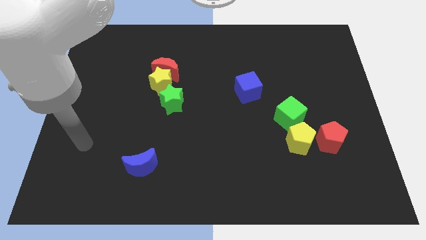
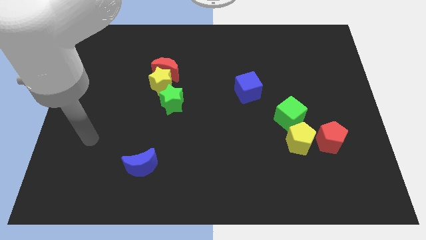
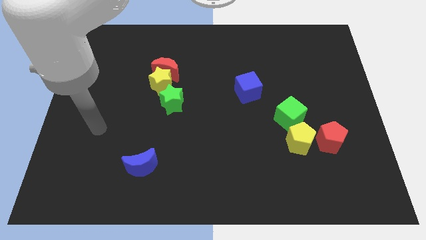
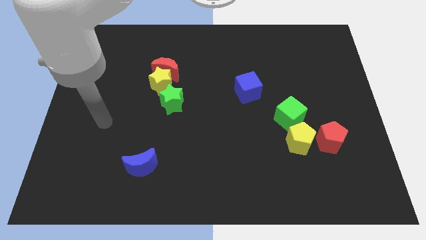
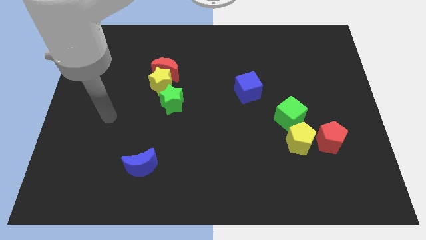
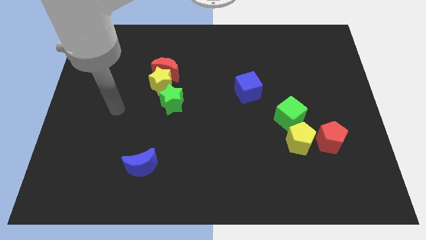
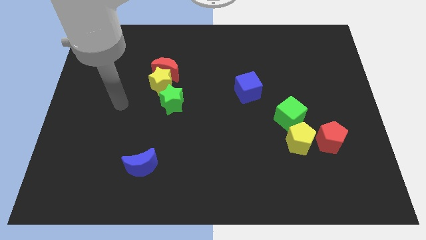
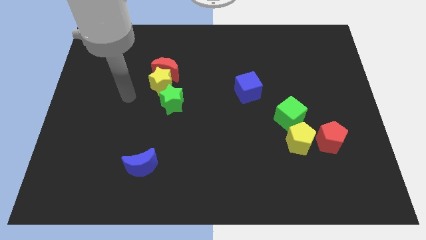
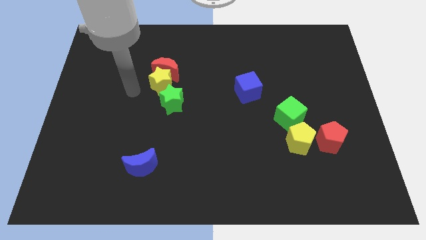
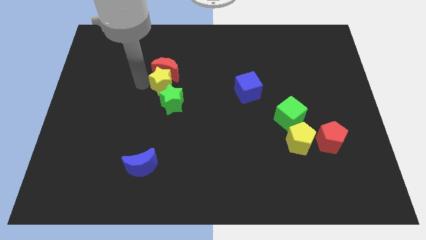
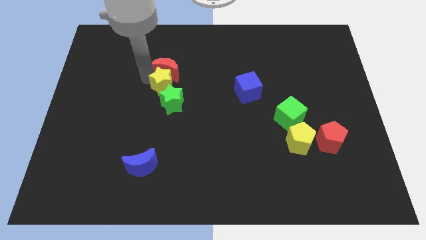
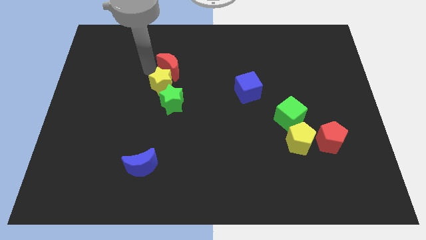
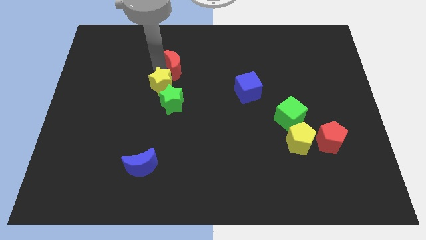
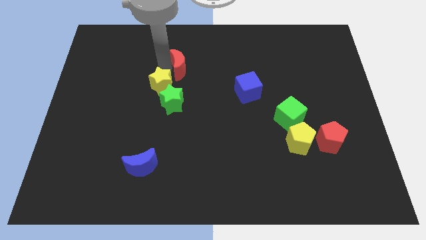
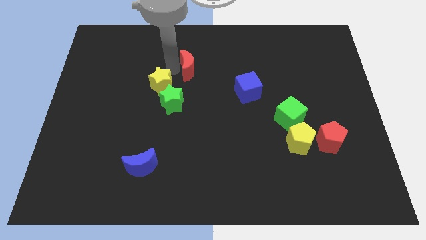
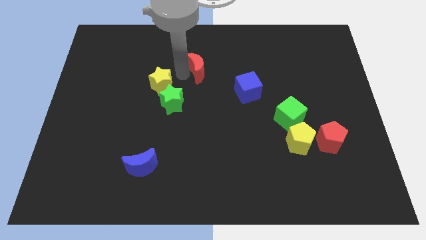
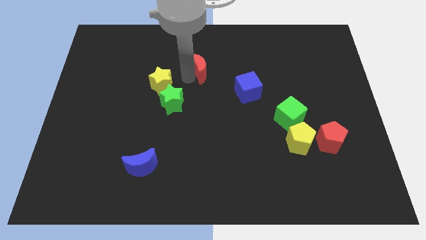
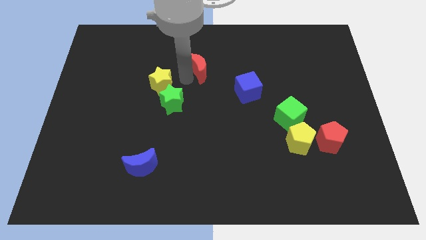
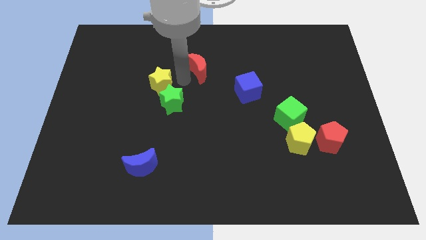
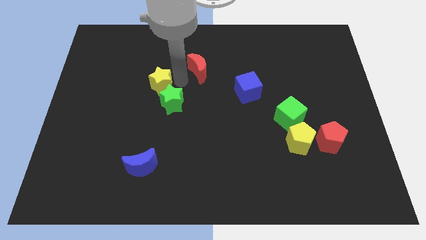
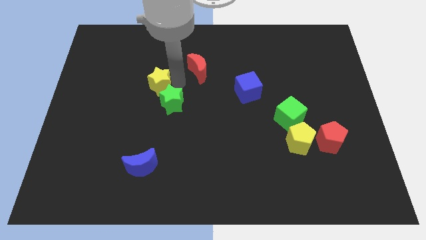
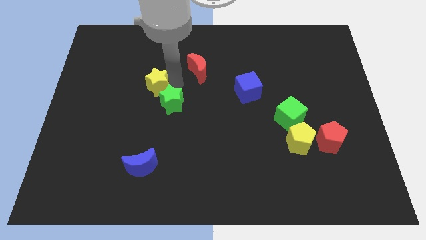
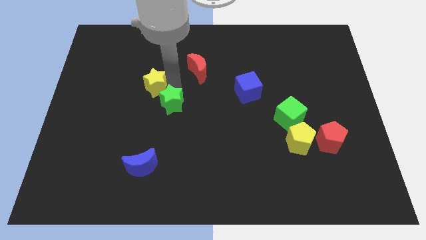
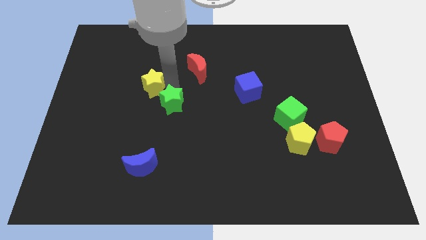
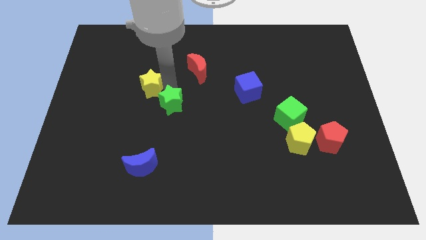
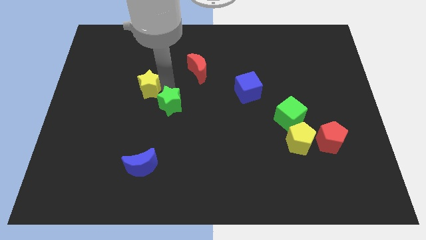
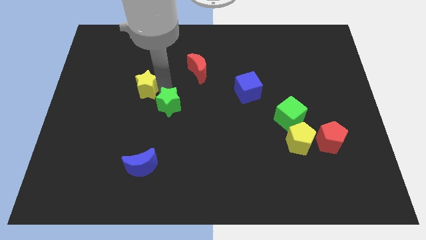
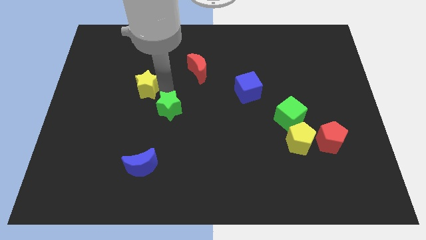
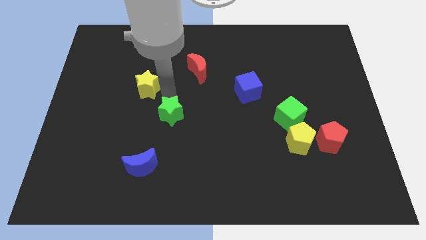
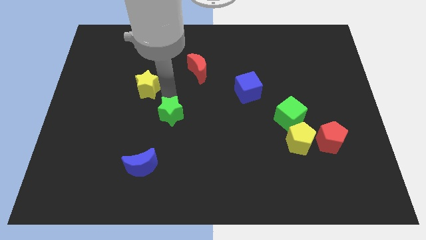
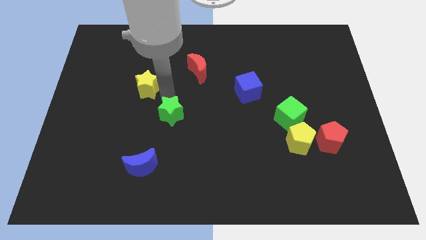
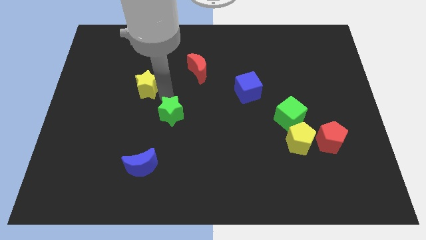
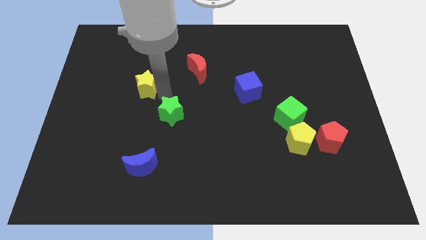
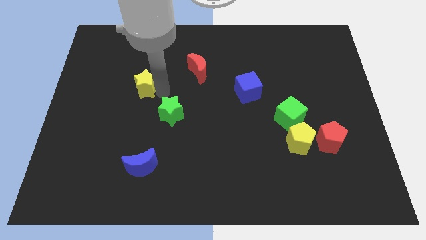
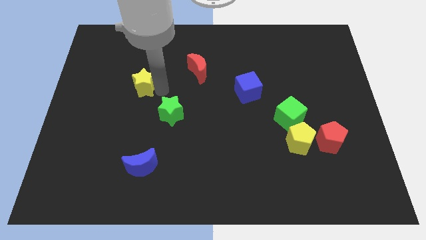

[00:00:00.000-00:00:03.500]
separate the yellow star from the red moon and green star

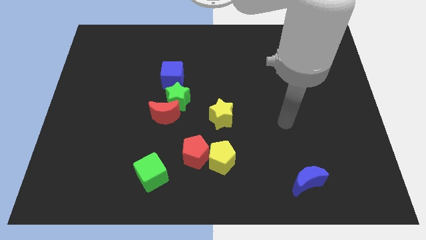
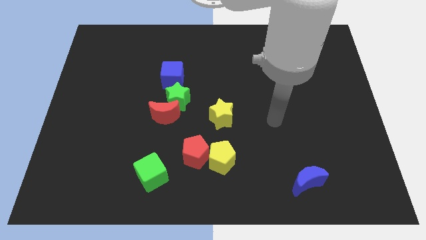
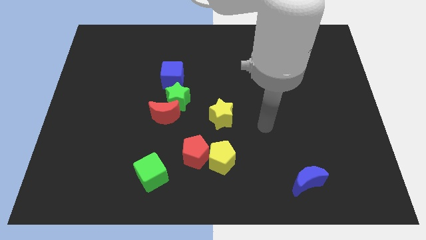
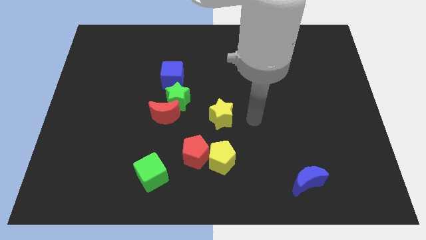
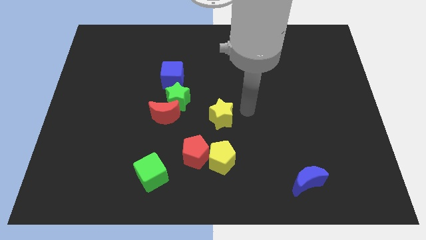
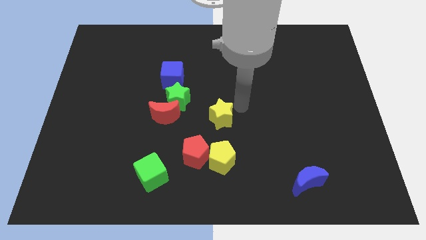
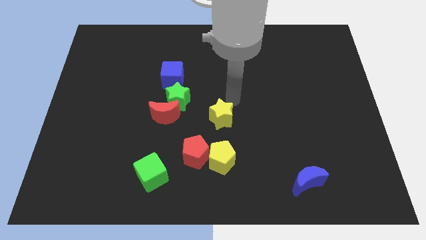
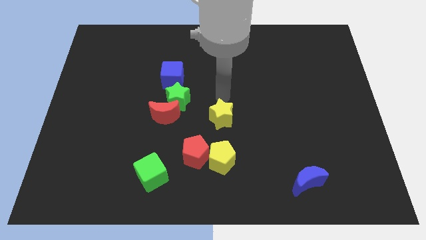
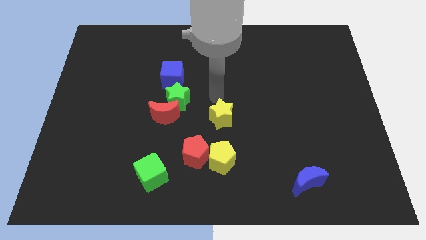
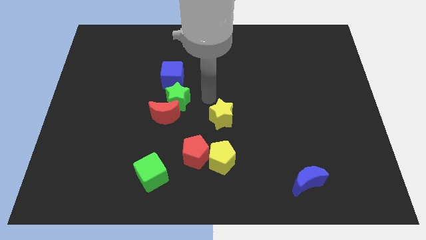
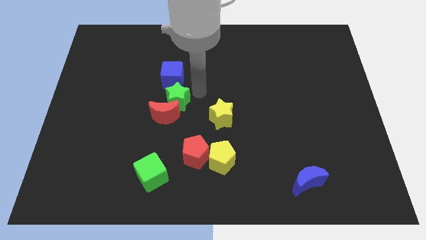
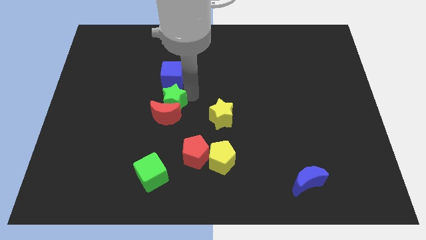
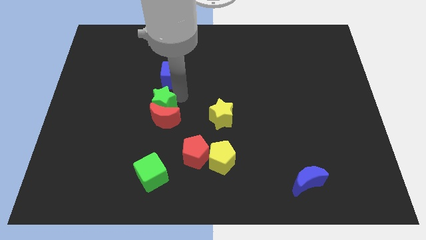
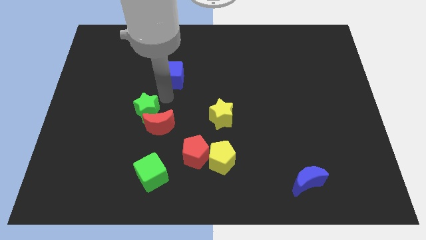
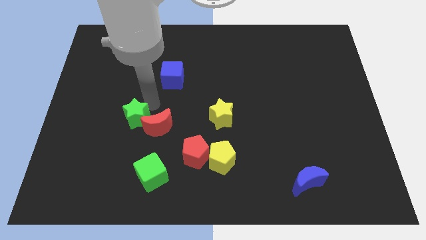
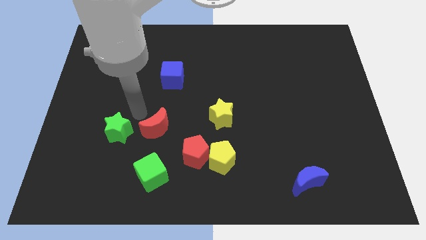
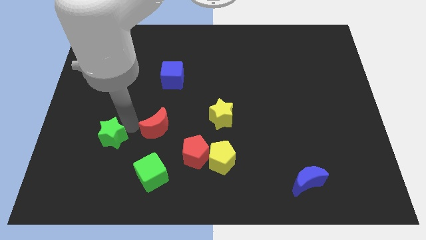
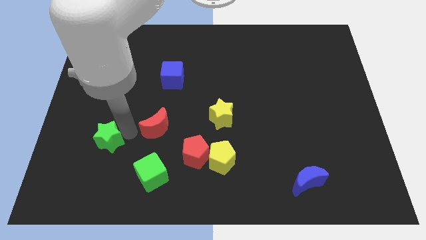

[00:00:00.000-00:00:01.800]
move the red moon away from the green star

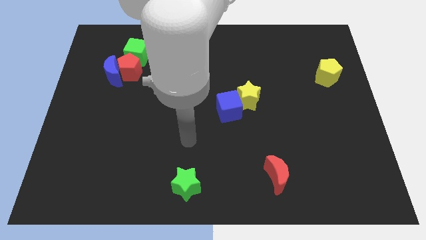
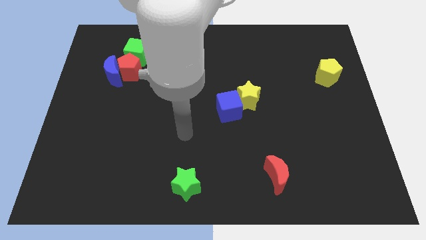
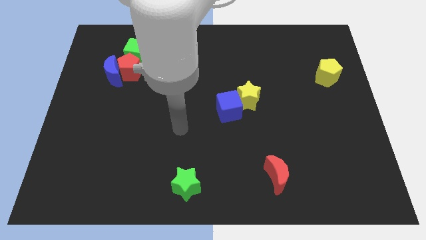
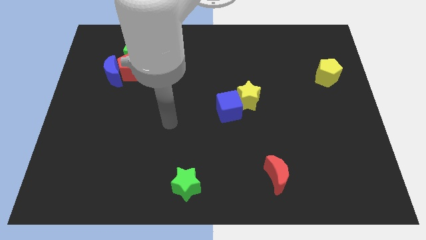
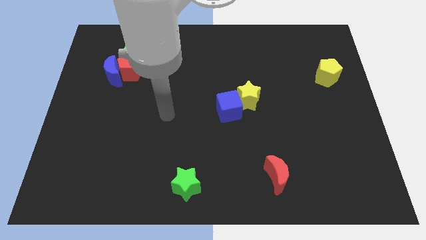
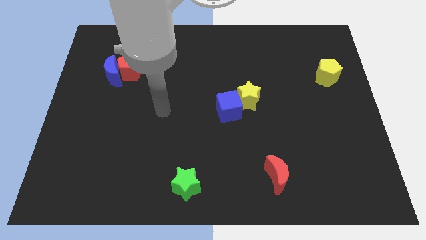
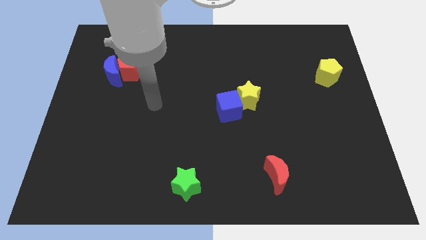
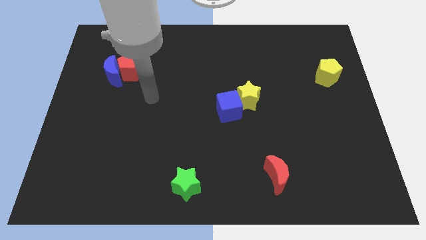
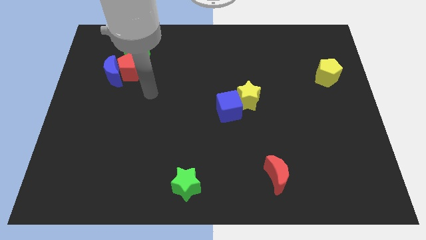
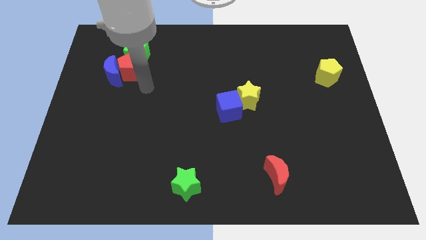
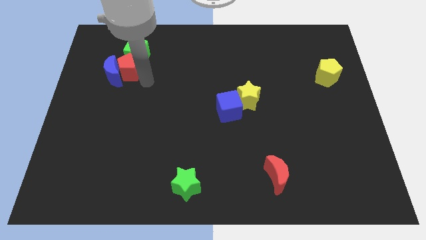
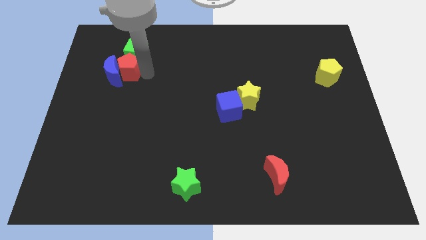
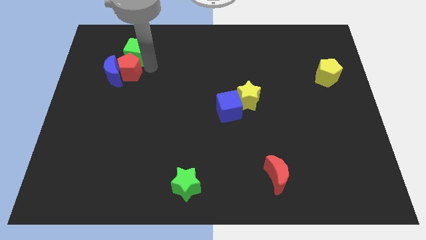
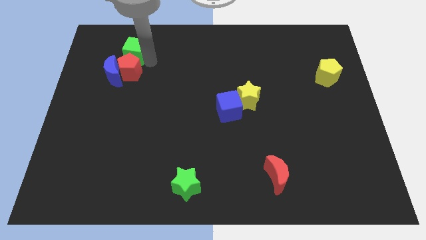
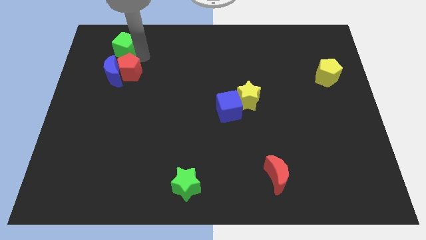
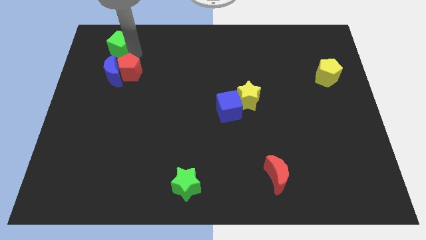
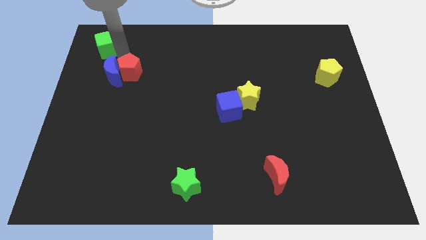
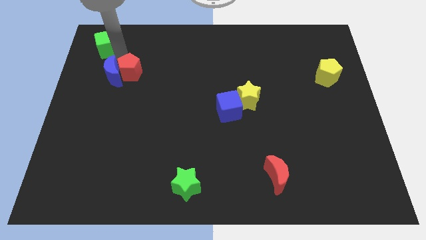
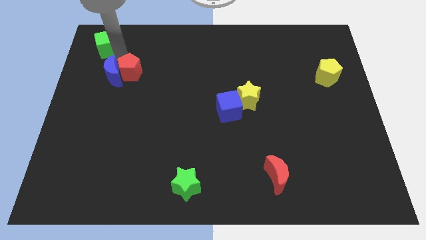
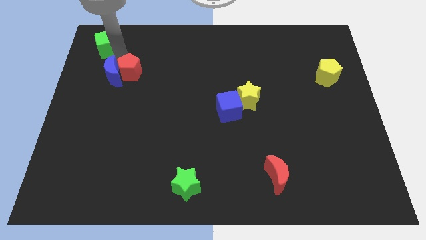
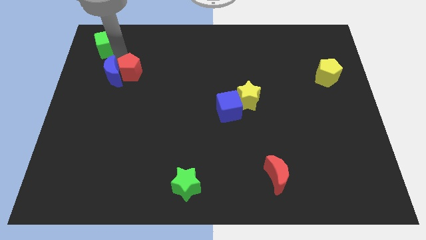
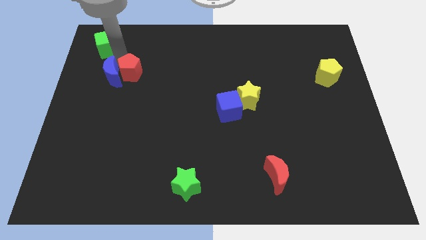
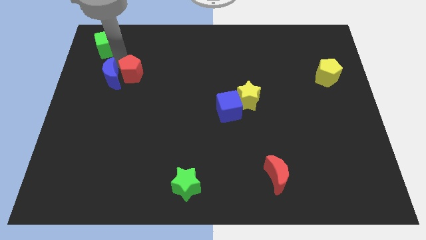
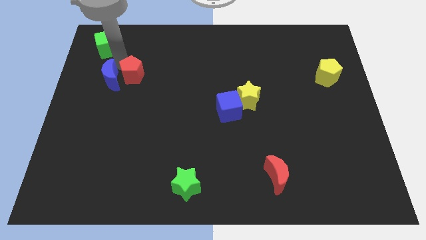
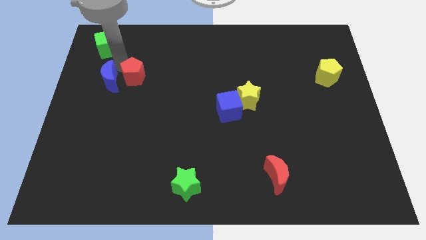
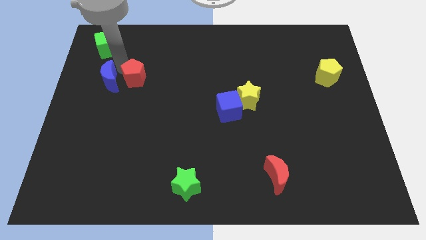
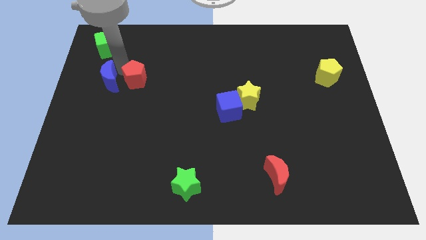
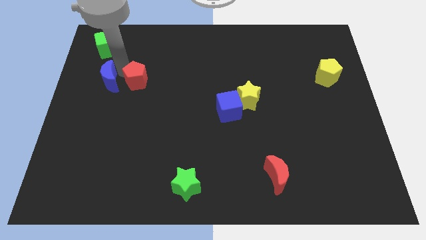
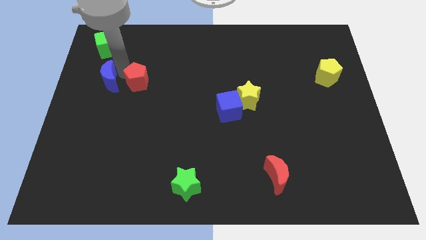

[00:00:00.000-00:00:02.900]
separate the red pentagon from the blue moon and green cube

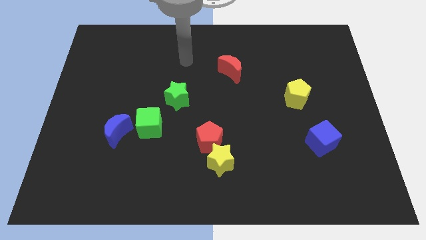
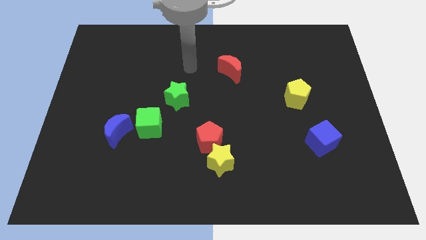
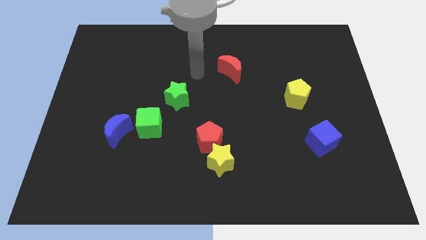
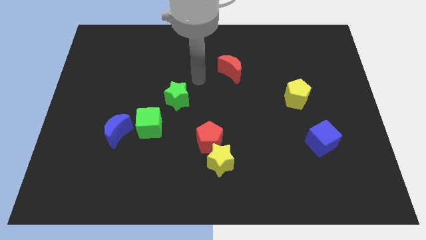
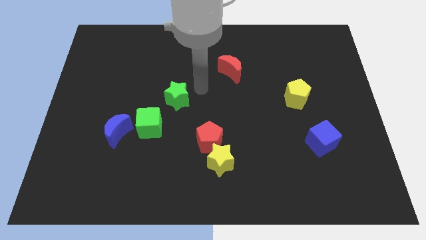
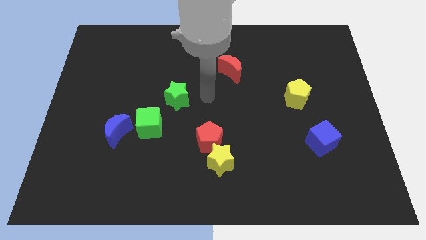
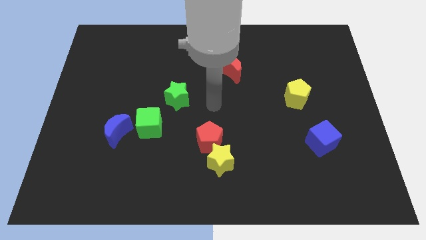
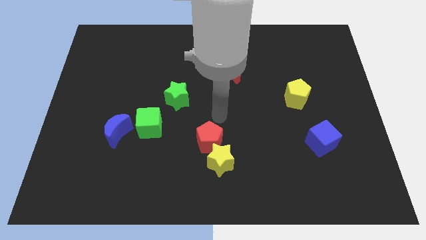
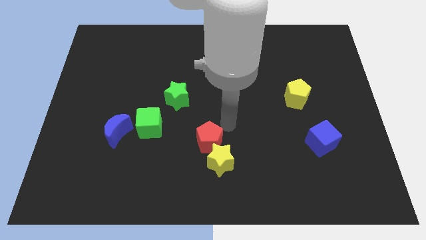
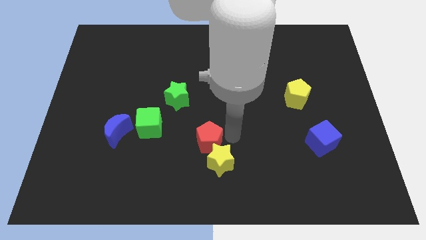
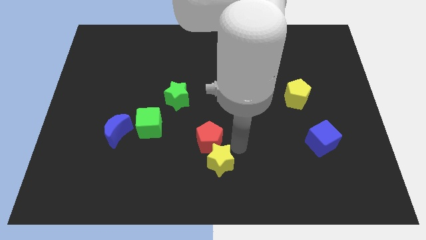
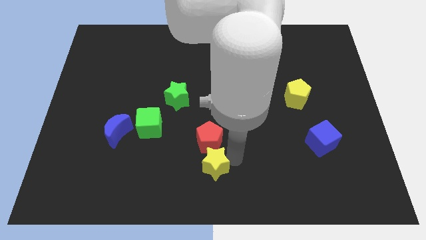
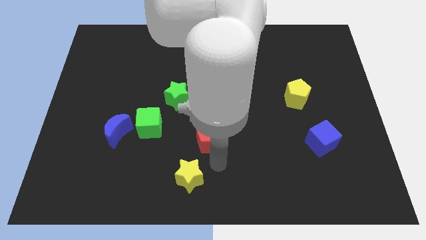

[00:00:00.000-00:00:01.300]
separate the red pentagon from the yellow star
